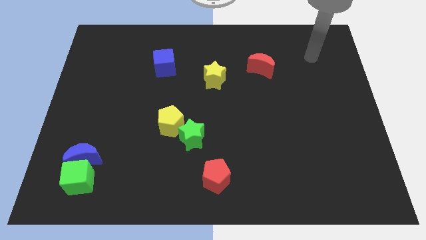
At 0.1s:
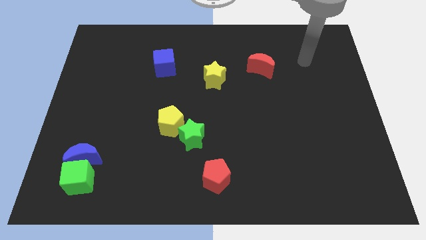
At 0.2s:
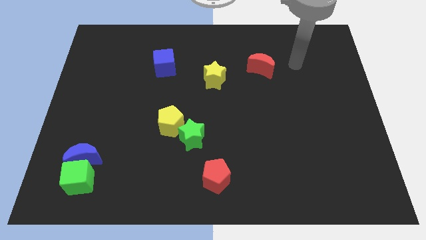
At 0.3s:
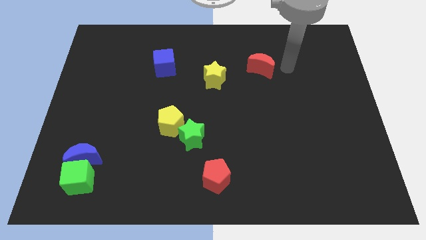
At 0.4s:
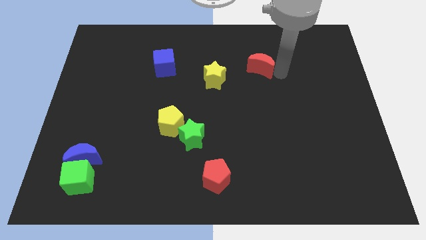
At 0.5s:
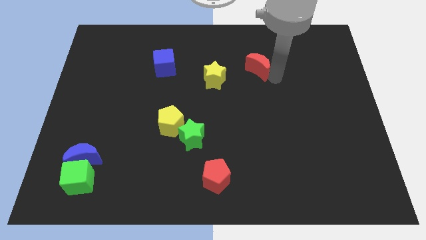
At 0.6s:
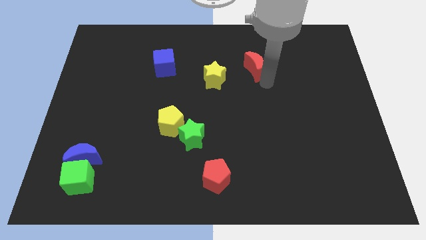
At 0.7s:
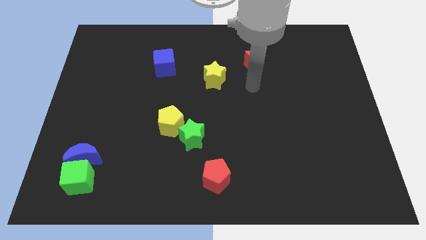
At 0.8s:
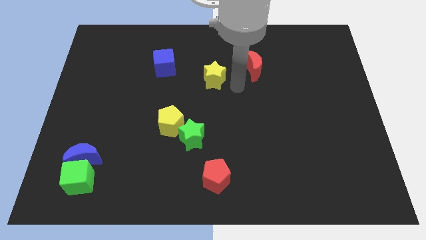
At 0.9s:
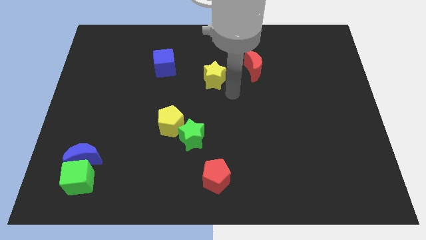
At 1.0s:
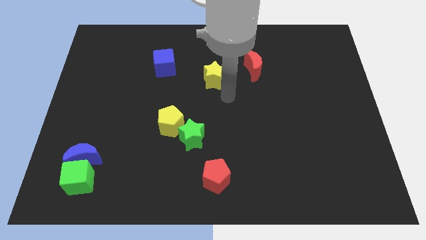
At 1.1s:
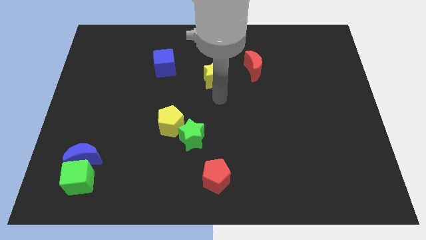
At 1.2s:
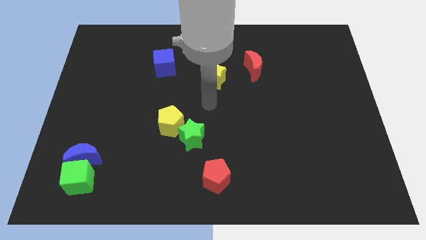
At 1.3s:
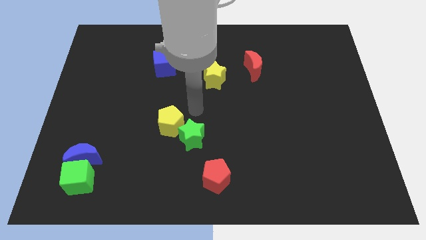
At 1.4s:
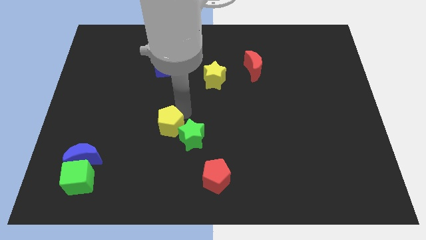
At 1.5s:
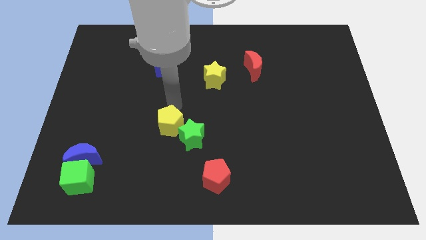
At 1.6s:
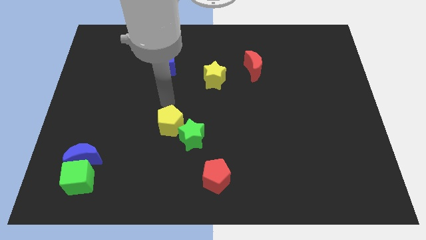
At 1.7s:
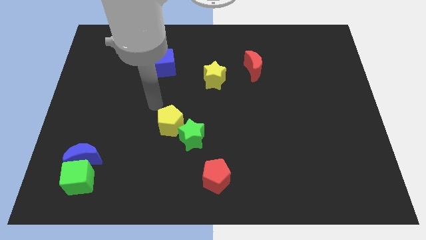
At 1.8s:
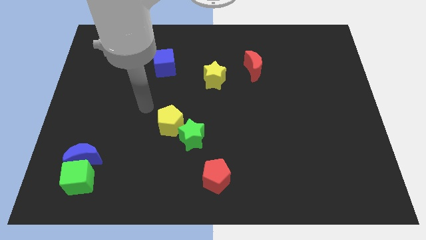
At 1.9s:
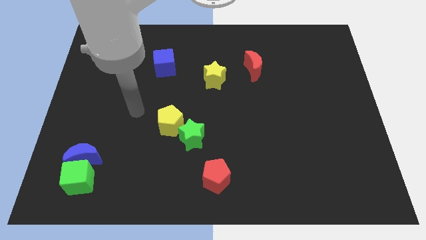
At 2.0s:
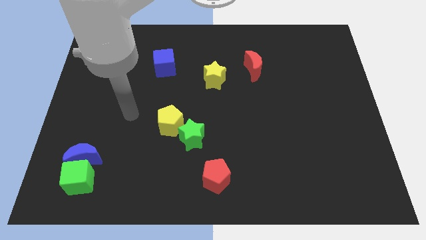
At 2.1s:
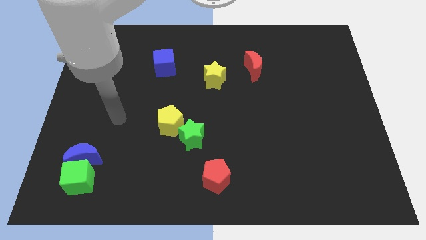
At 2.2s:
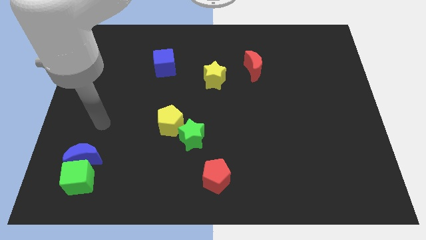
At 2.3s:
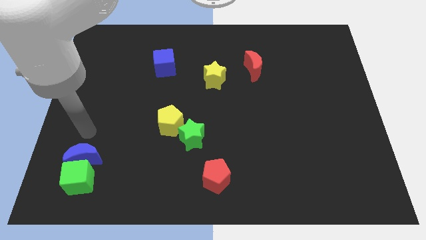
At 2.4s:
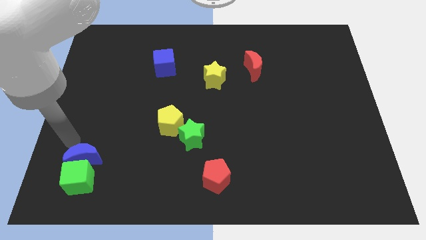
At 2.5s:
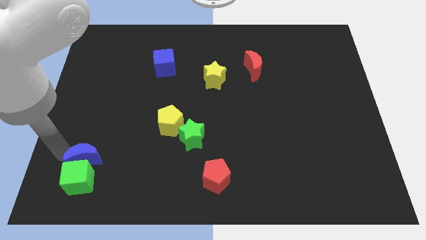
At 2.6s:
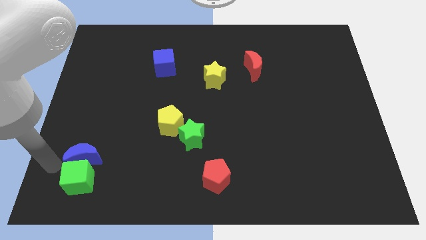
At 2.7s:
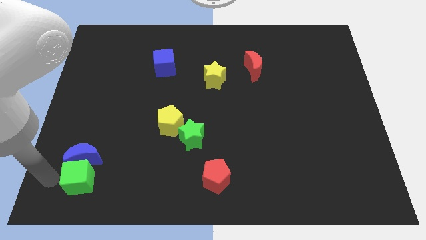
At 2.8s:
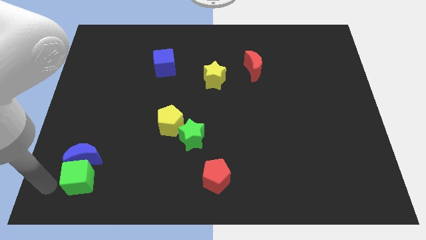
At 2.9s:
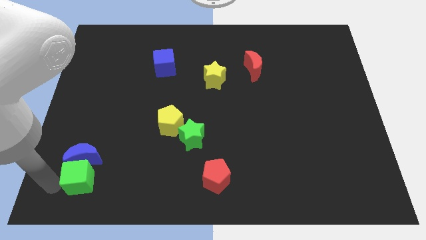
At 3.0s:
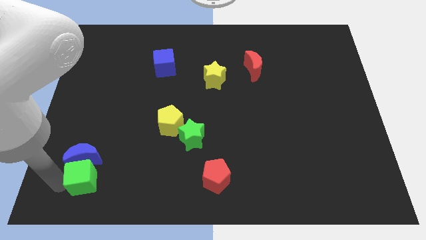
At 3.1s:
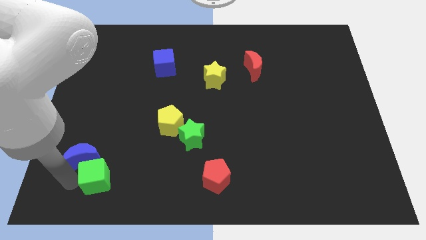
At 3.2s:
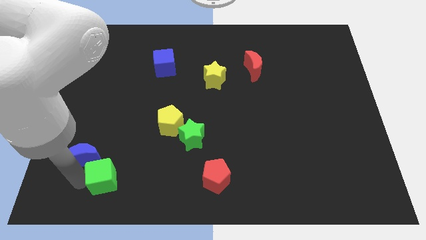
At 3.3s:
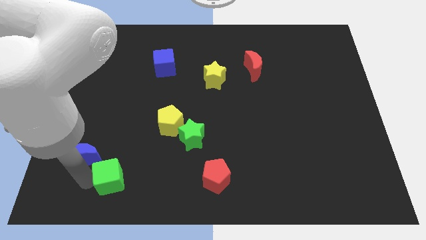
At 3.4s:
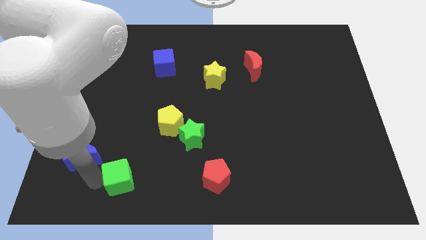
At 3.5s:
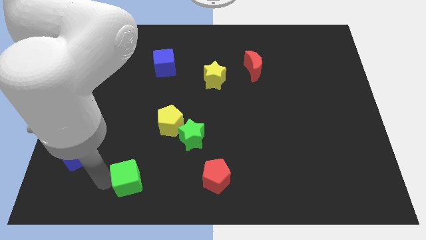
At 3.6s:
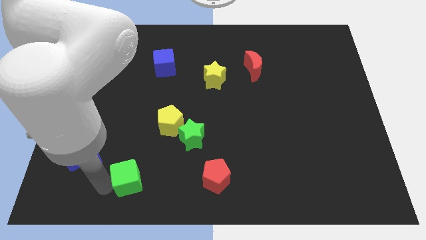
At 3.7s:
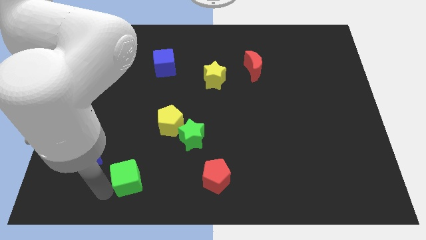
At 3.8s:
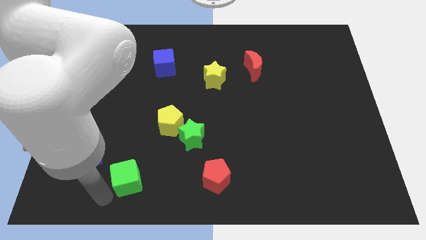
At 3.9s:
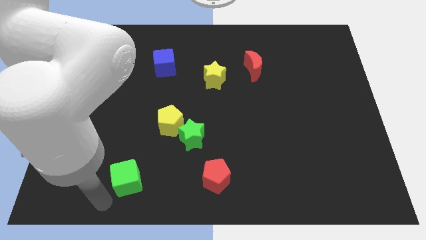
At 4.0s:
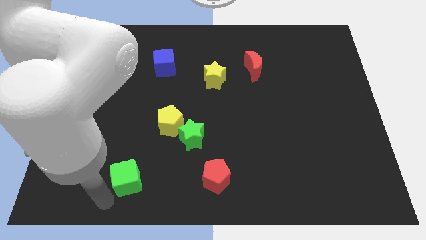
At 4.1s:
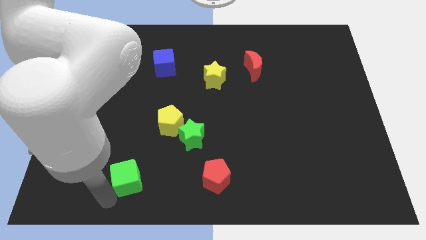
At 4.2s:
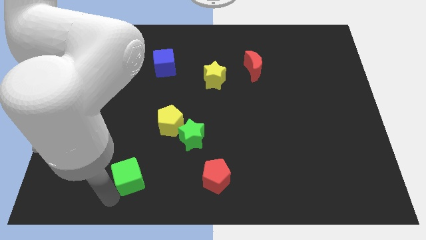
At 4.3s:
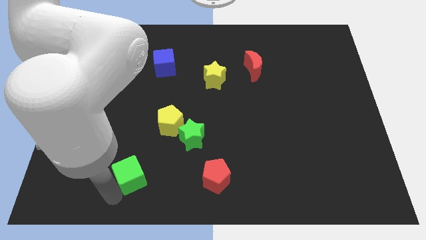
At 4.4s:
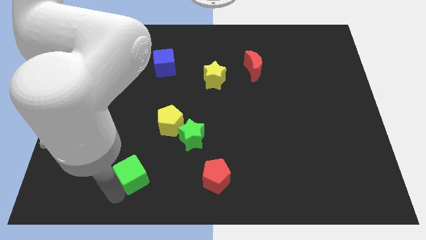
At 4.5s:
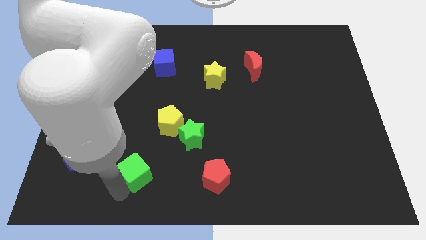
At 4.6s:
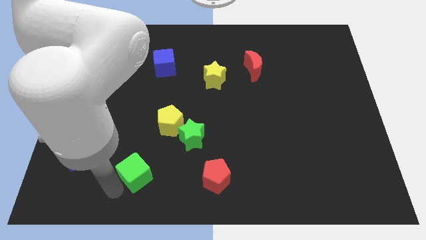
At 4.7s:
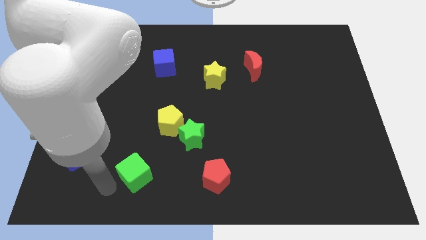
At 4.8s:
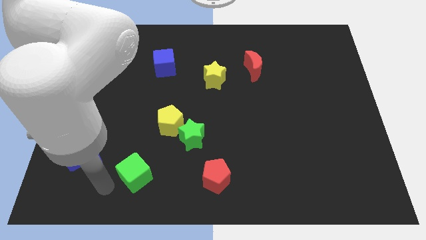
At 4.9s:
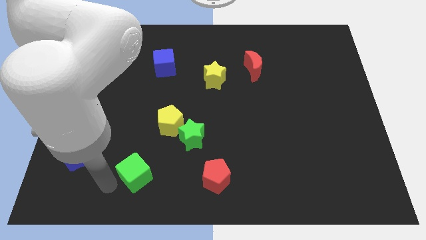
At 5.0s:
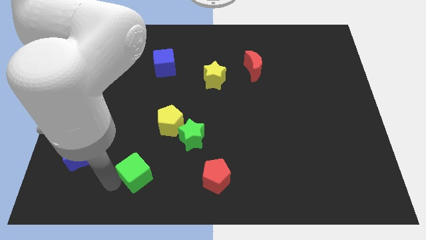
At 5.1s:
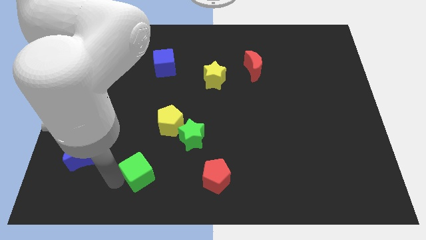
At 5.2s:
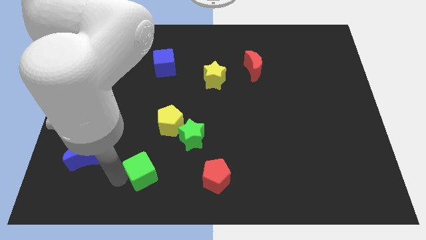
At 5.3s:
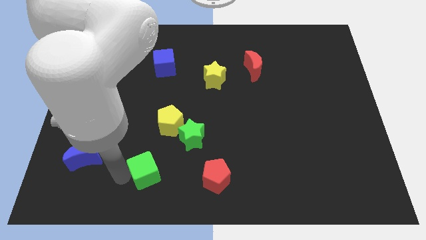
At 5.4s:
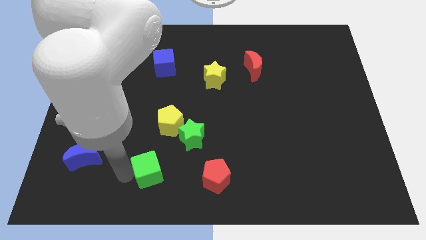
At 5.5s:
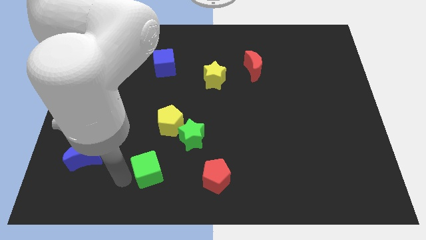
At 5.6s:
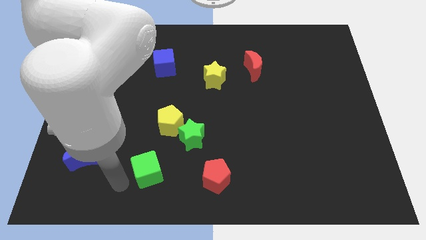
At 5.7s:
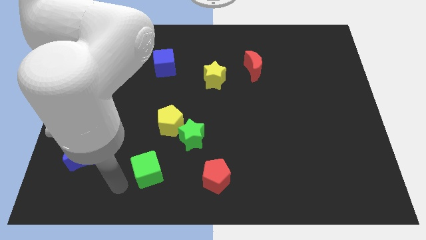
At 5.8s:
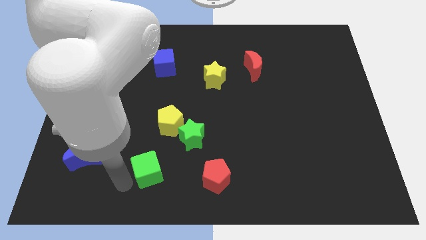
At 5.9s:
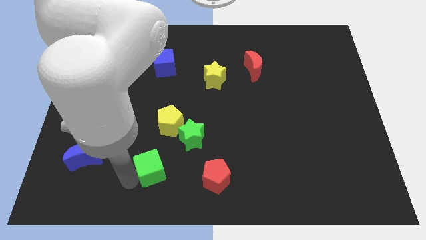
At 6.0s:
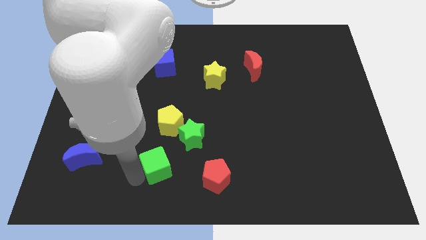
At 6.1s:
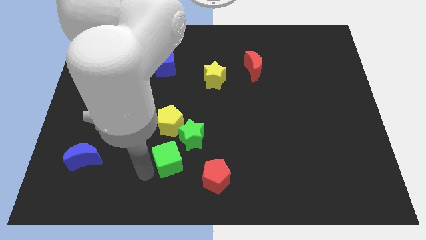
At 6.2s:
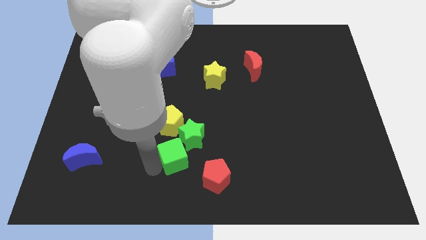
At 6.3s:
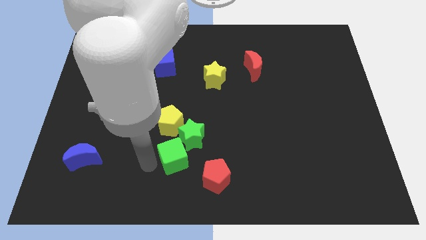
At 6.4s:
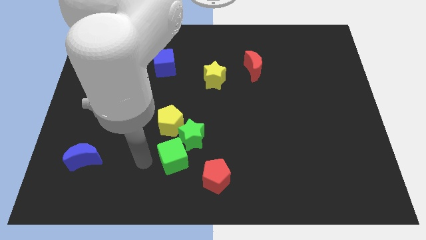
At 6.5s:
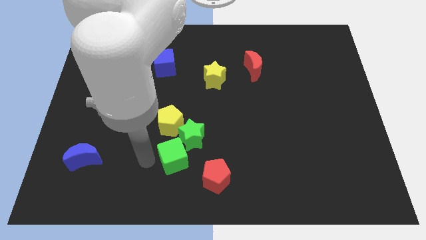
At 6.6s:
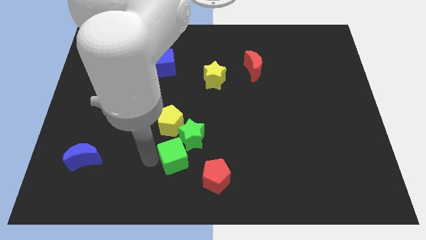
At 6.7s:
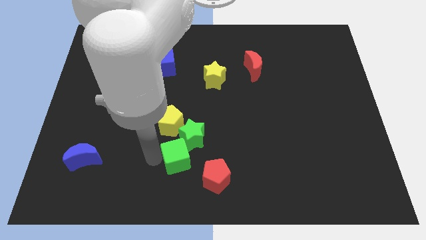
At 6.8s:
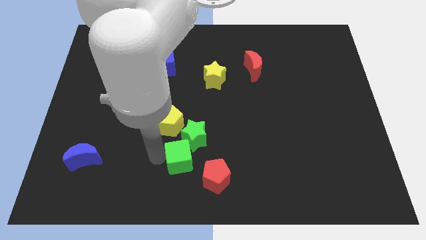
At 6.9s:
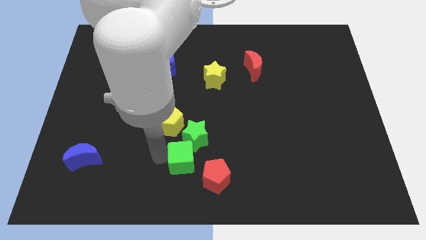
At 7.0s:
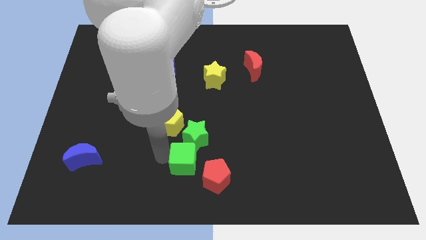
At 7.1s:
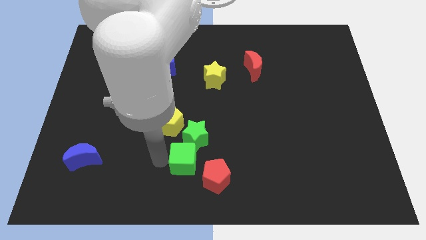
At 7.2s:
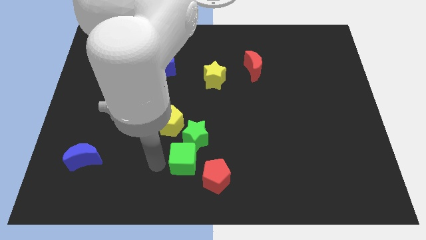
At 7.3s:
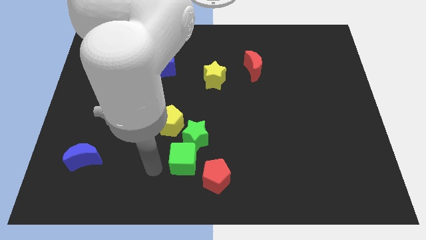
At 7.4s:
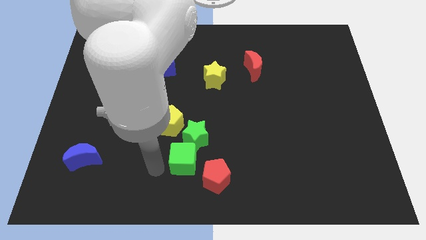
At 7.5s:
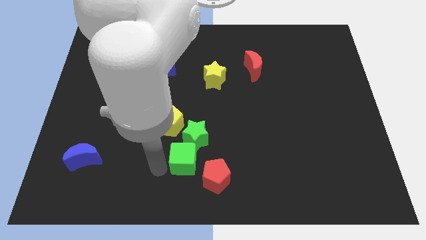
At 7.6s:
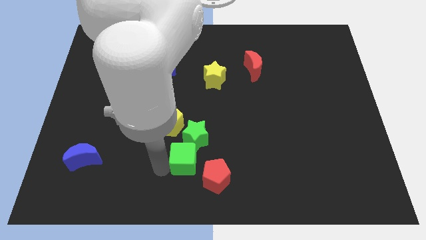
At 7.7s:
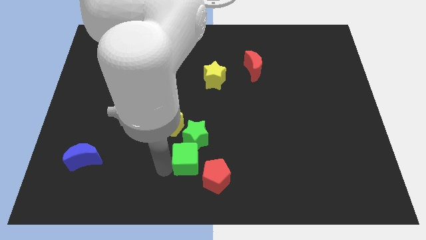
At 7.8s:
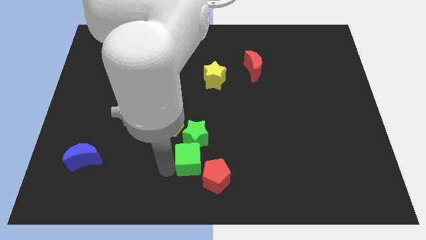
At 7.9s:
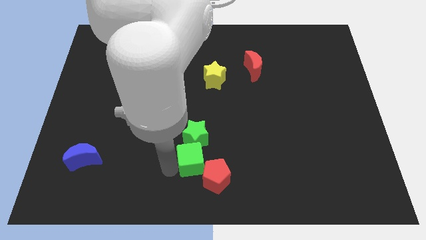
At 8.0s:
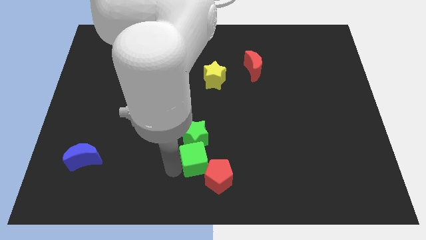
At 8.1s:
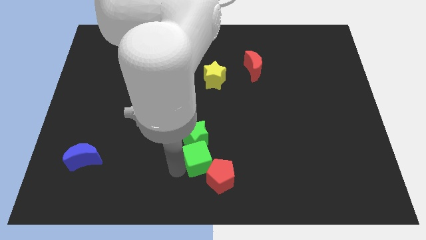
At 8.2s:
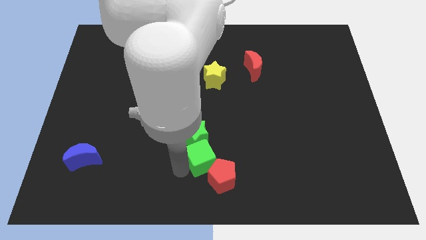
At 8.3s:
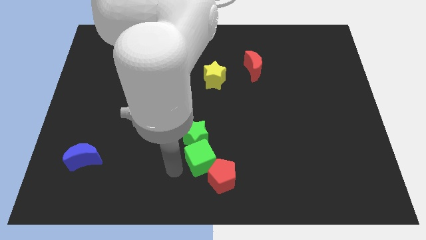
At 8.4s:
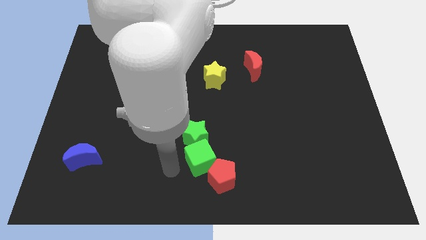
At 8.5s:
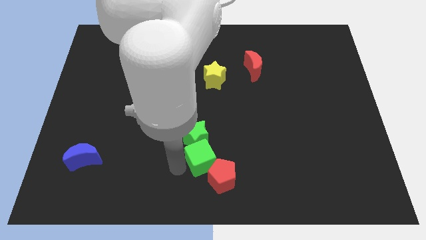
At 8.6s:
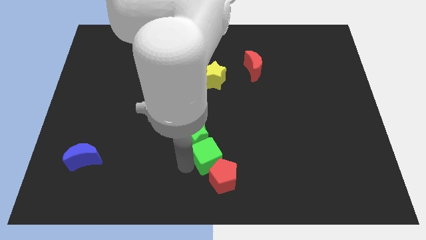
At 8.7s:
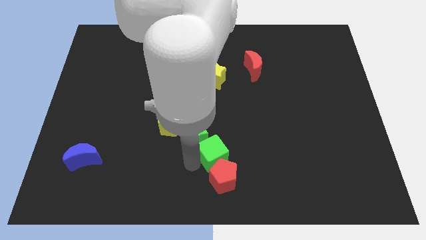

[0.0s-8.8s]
slide the green cube to the right side of the green star
